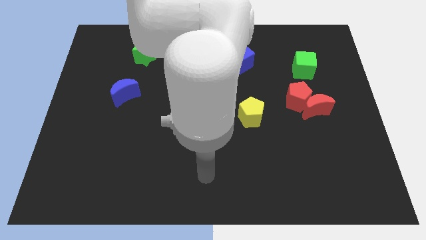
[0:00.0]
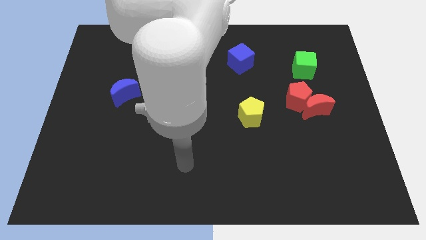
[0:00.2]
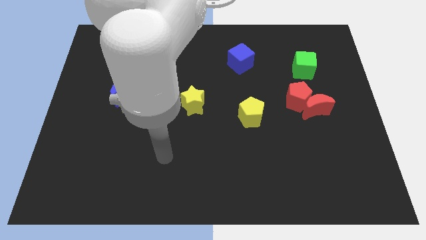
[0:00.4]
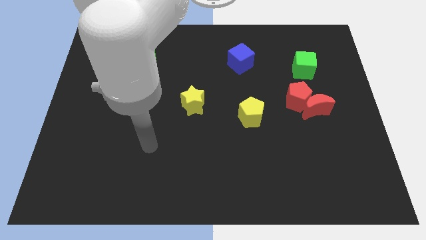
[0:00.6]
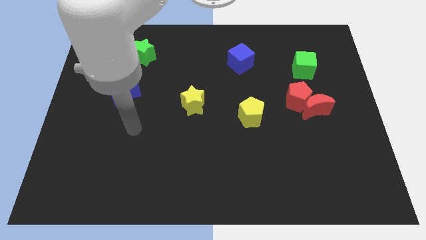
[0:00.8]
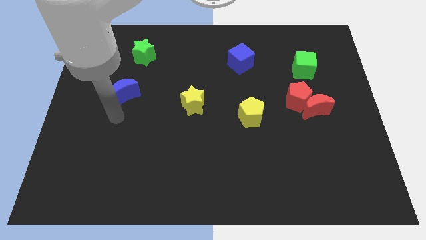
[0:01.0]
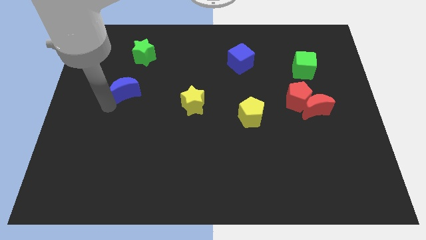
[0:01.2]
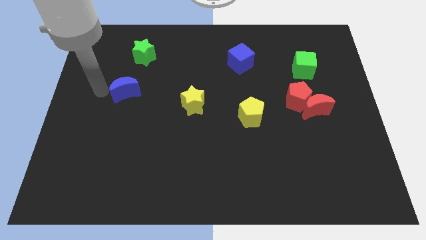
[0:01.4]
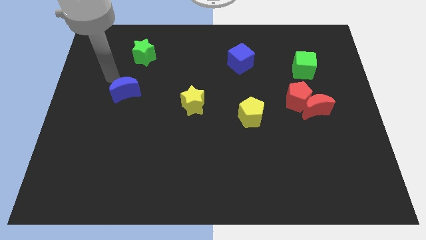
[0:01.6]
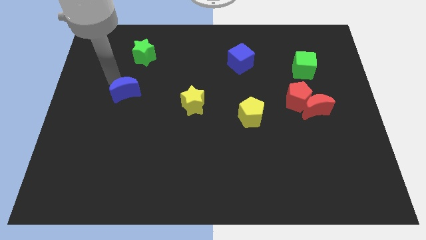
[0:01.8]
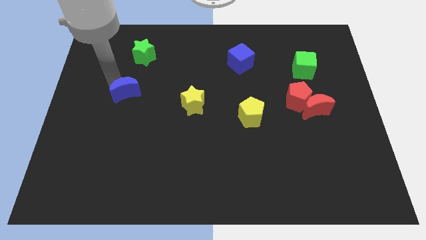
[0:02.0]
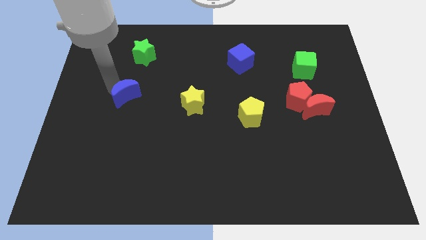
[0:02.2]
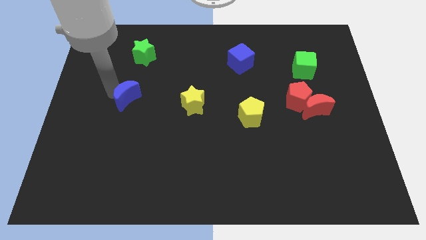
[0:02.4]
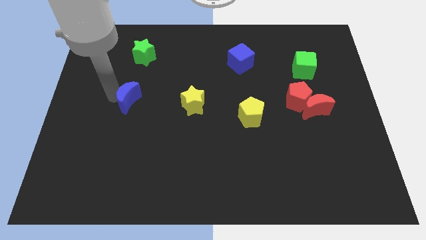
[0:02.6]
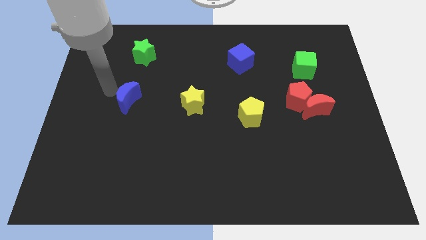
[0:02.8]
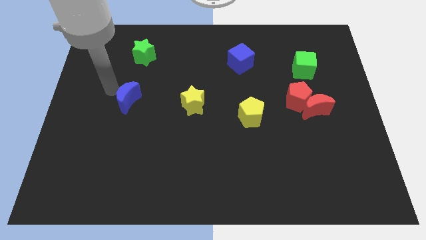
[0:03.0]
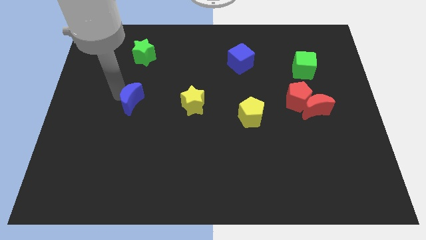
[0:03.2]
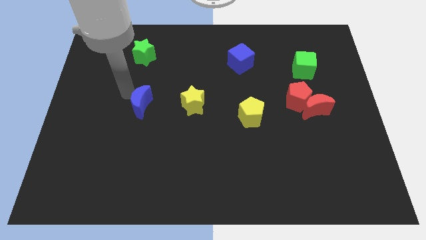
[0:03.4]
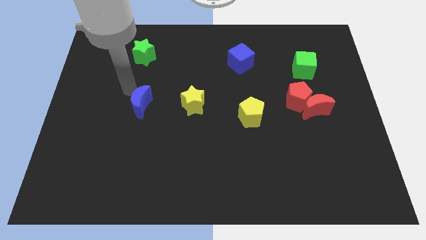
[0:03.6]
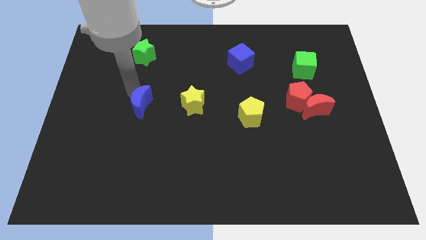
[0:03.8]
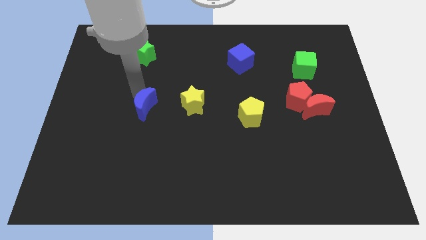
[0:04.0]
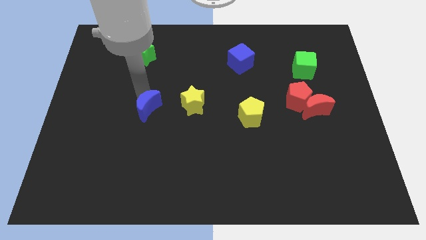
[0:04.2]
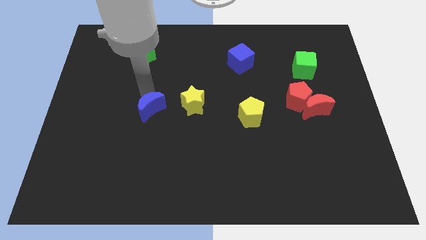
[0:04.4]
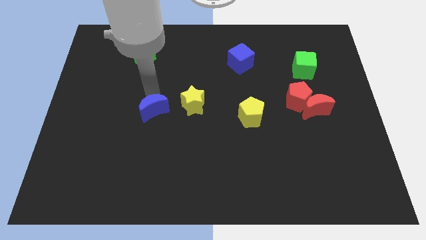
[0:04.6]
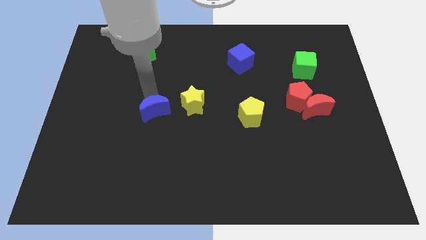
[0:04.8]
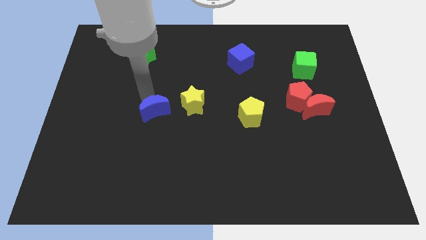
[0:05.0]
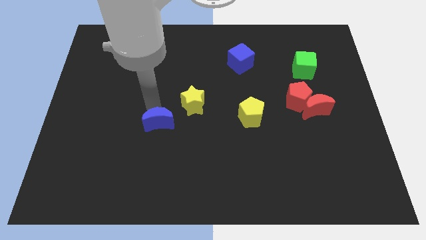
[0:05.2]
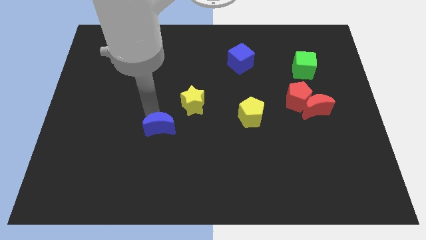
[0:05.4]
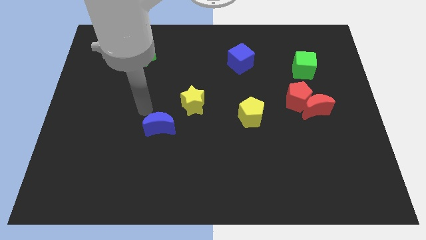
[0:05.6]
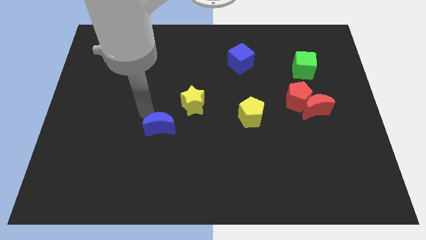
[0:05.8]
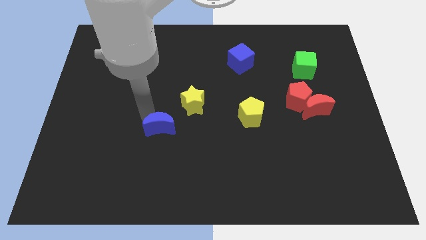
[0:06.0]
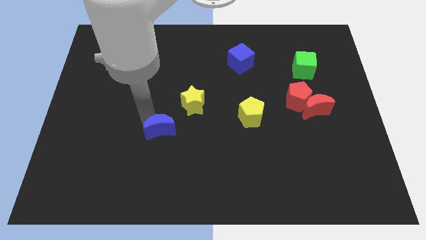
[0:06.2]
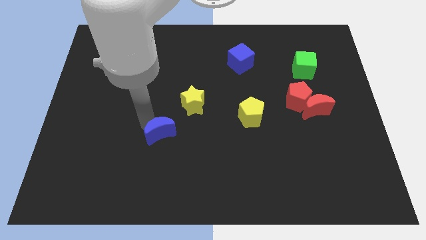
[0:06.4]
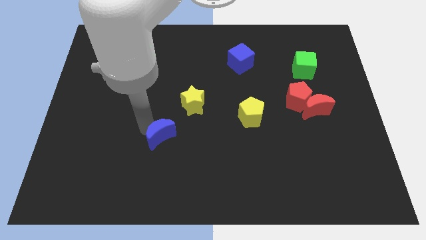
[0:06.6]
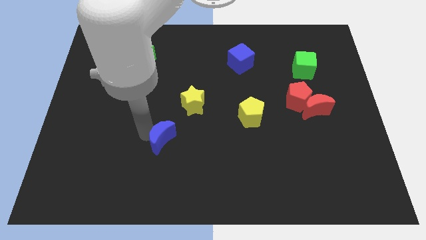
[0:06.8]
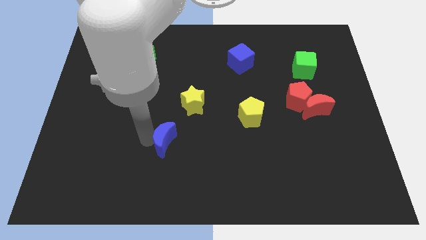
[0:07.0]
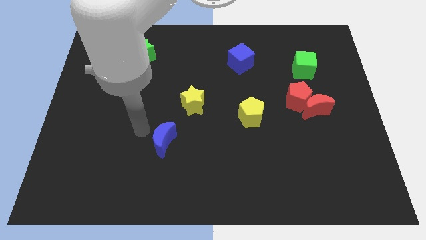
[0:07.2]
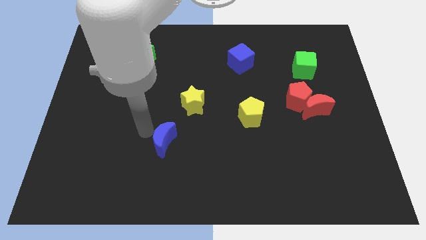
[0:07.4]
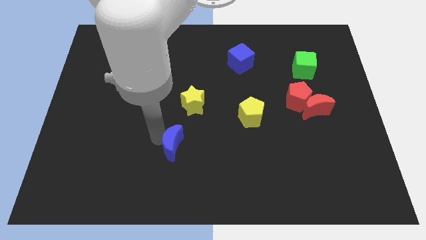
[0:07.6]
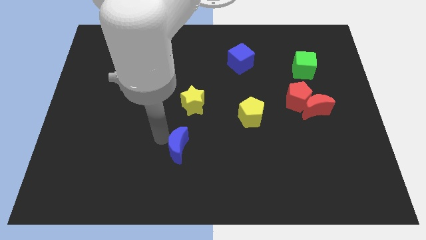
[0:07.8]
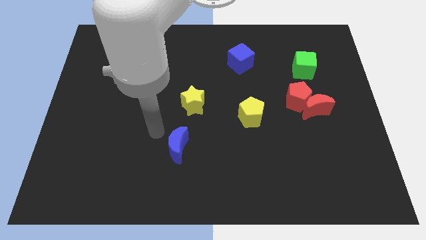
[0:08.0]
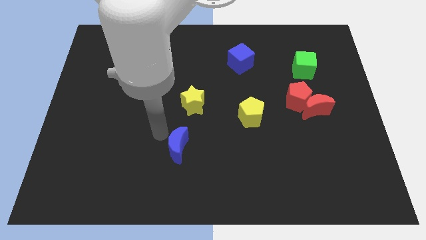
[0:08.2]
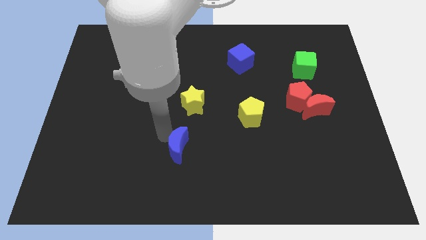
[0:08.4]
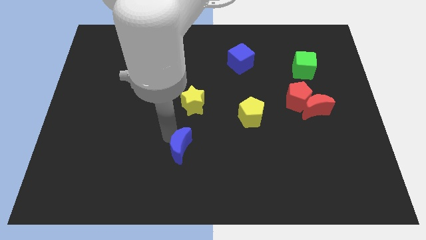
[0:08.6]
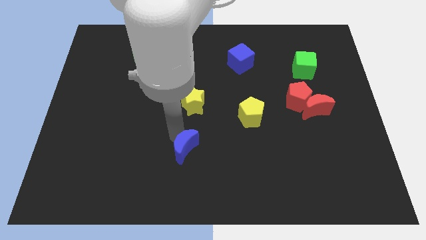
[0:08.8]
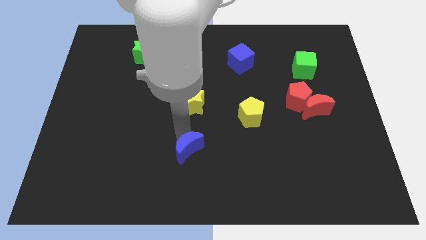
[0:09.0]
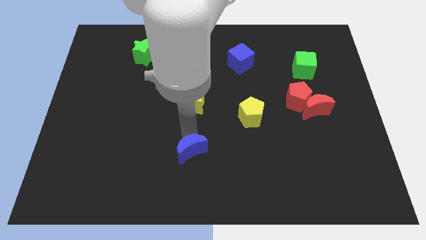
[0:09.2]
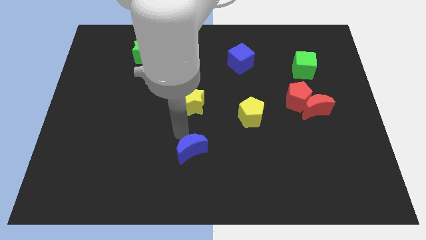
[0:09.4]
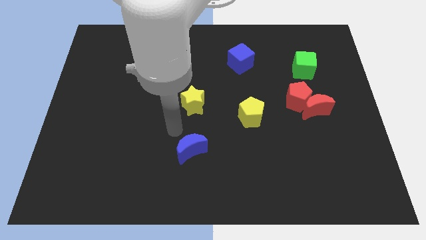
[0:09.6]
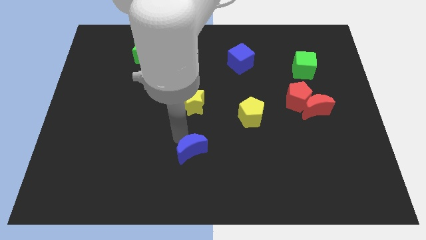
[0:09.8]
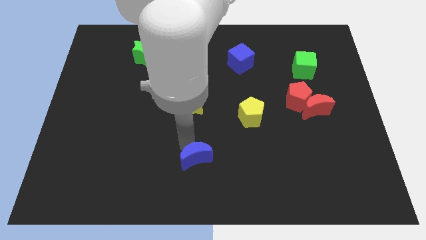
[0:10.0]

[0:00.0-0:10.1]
move the blue moon to the bottom side

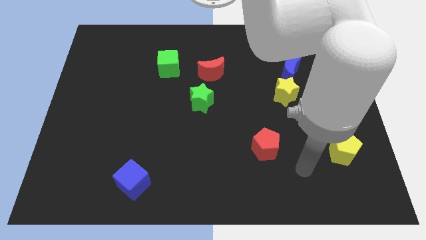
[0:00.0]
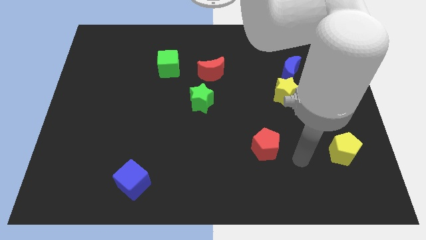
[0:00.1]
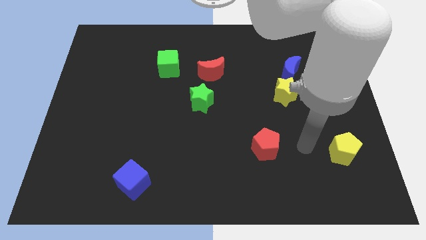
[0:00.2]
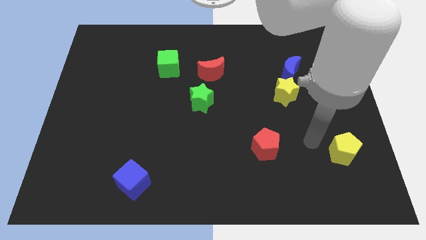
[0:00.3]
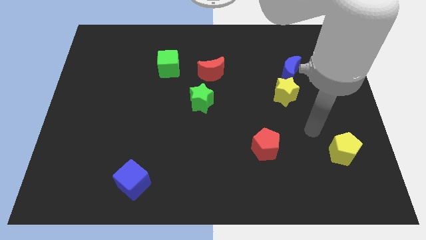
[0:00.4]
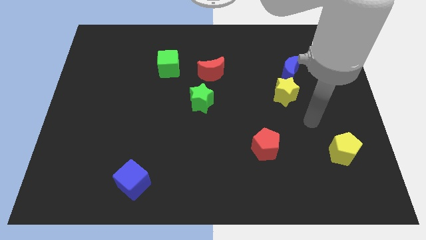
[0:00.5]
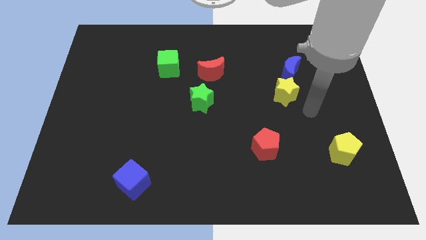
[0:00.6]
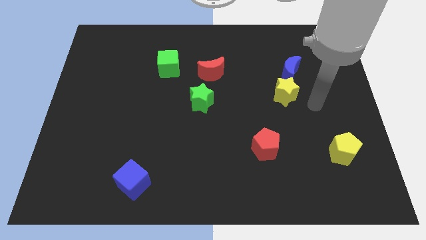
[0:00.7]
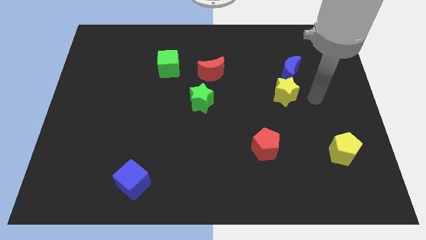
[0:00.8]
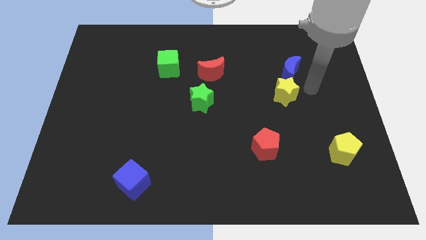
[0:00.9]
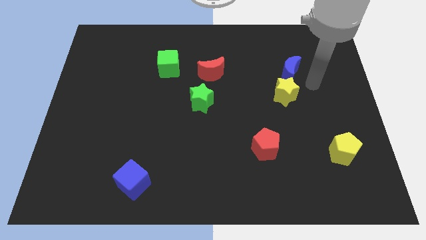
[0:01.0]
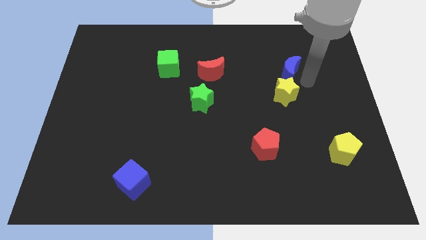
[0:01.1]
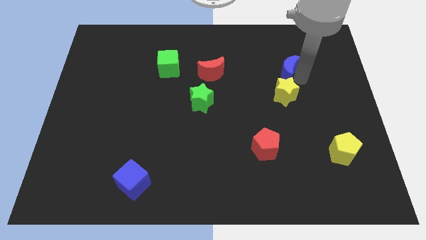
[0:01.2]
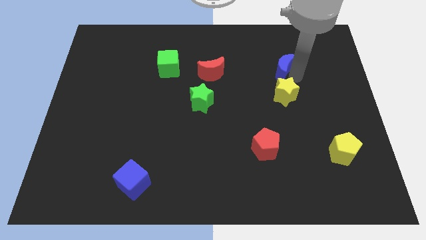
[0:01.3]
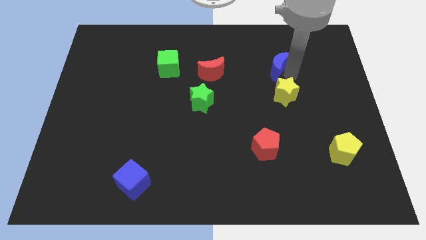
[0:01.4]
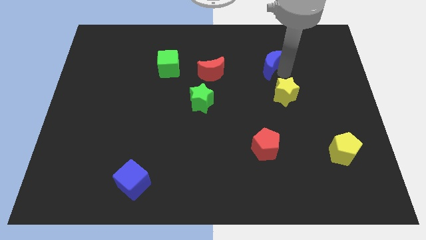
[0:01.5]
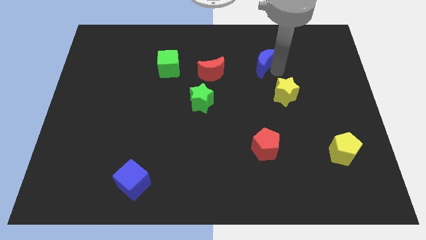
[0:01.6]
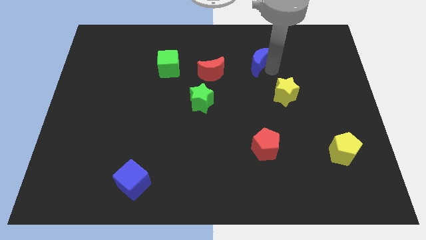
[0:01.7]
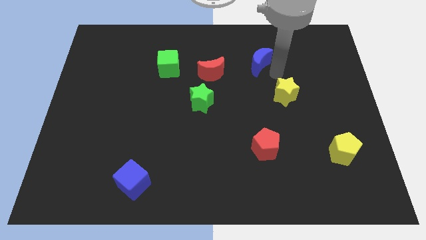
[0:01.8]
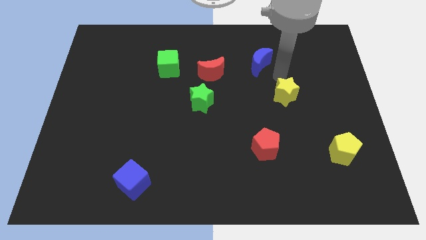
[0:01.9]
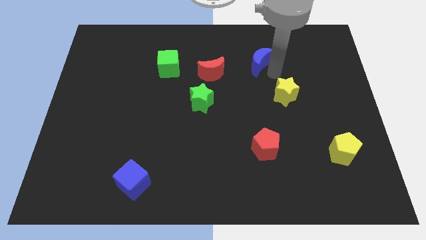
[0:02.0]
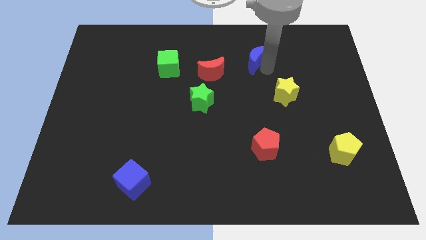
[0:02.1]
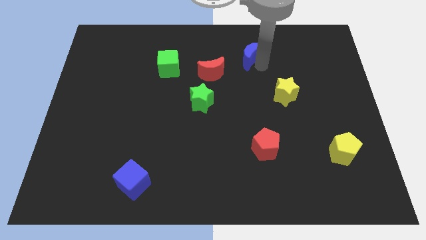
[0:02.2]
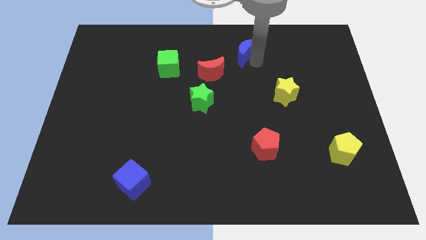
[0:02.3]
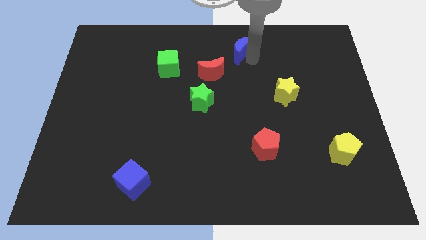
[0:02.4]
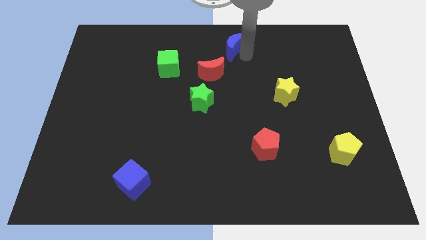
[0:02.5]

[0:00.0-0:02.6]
slide the blue moon to the towards your base
